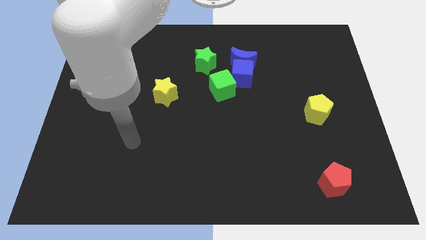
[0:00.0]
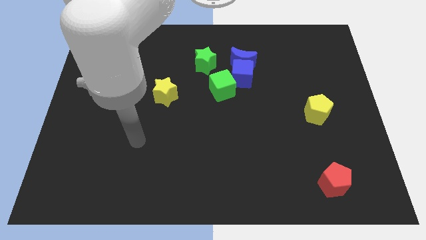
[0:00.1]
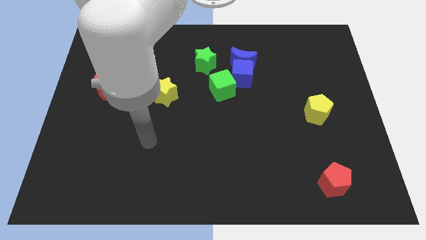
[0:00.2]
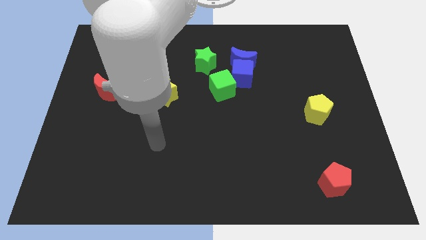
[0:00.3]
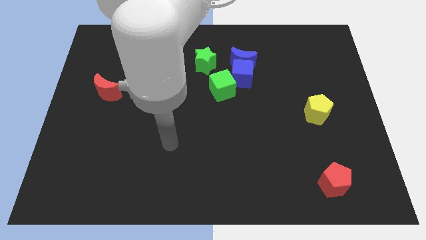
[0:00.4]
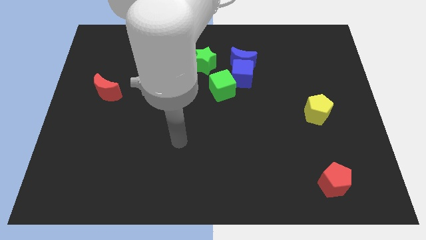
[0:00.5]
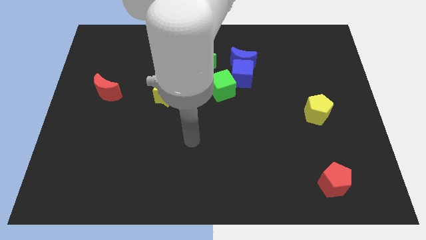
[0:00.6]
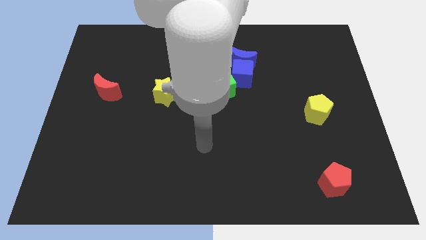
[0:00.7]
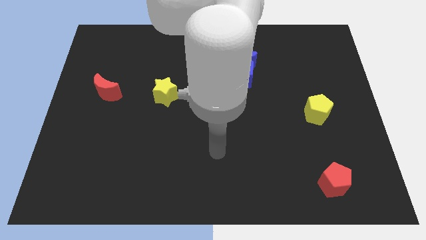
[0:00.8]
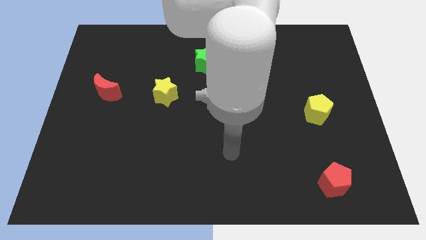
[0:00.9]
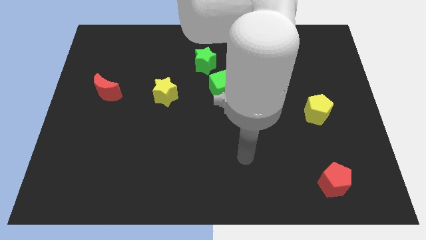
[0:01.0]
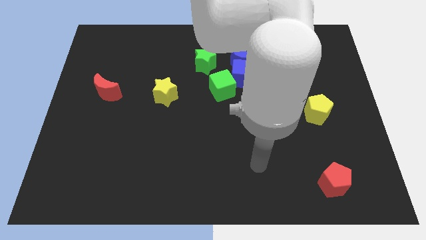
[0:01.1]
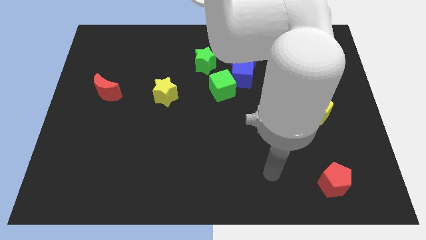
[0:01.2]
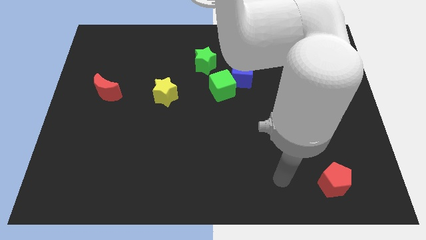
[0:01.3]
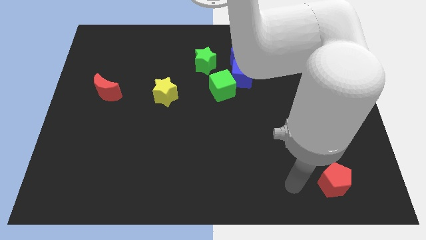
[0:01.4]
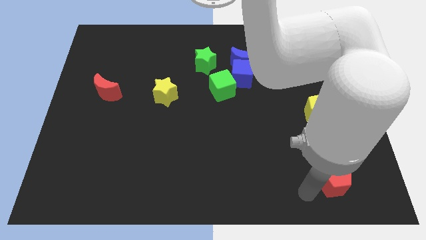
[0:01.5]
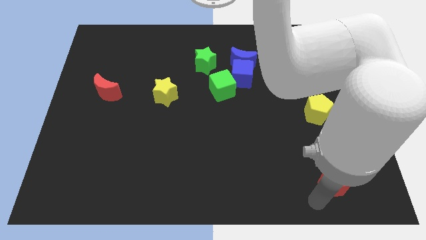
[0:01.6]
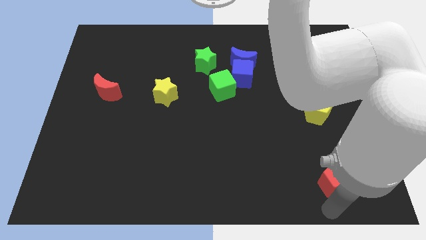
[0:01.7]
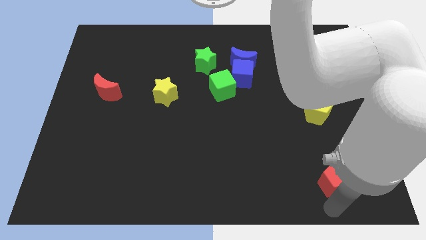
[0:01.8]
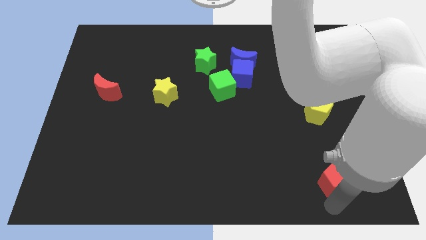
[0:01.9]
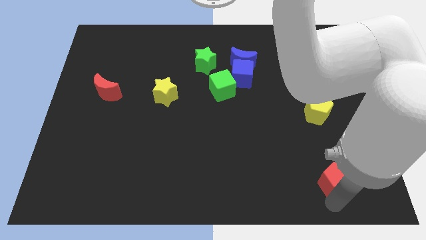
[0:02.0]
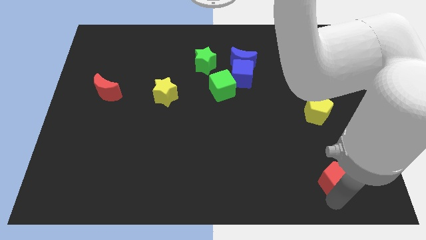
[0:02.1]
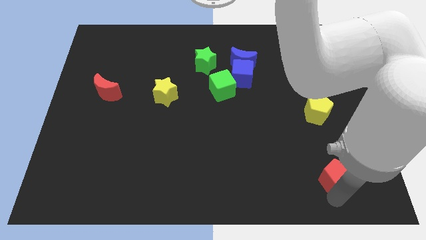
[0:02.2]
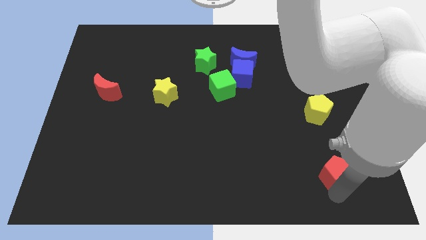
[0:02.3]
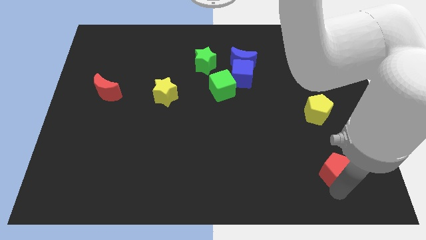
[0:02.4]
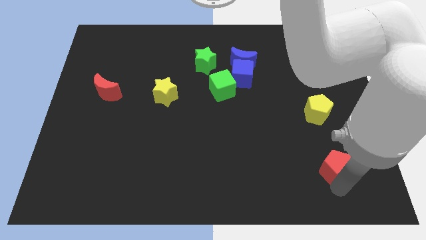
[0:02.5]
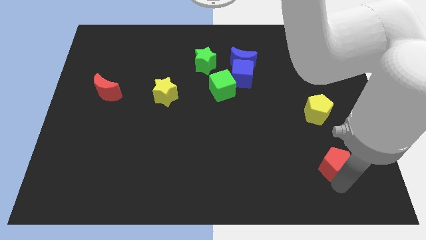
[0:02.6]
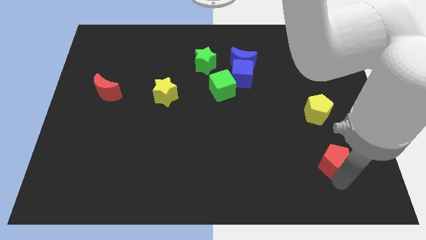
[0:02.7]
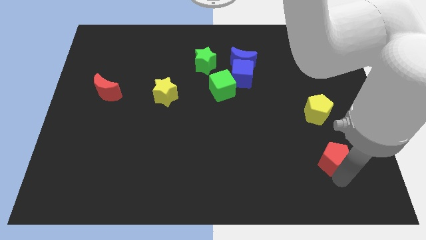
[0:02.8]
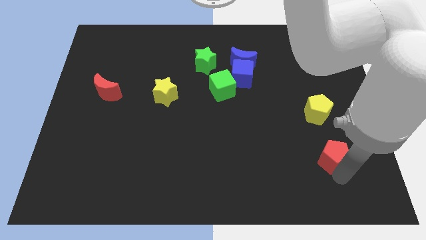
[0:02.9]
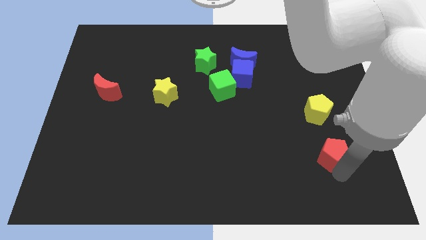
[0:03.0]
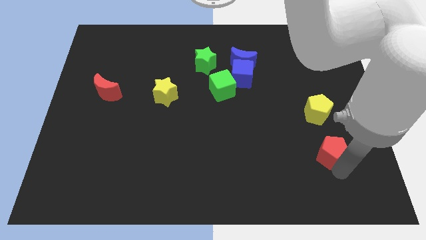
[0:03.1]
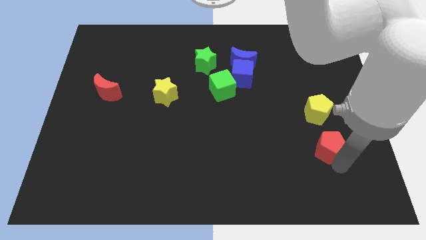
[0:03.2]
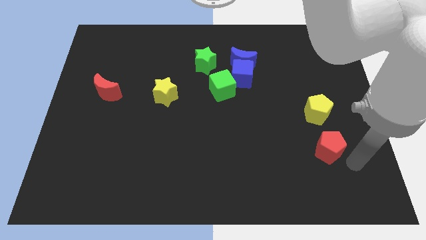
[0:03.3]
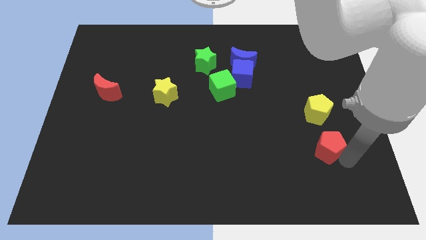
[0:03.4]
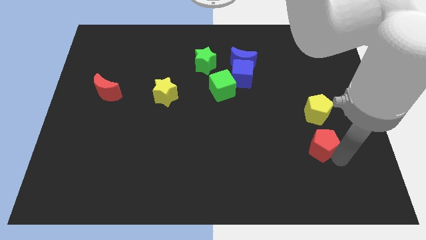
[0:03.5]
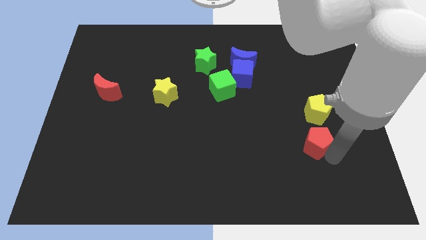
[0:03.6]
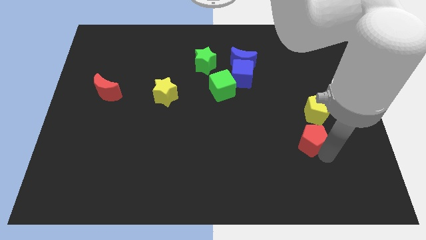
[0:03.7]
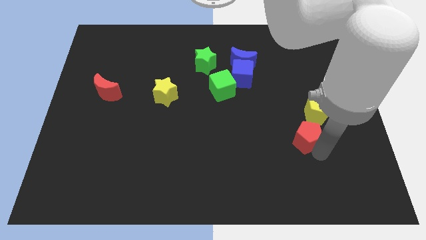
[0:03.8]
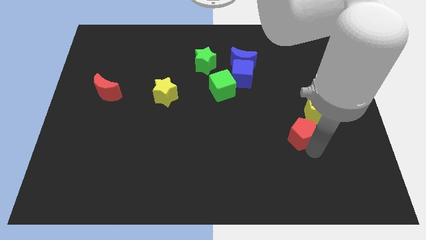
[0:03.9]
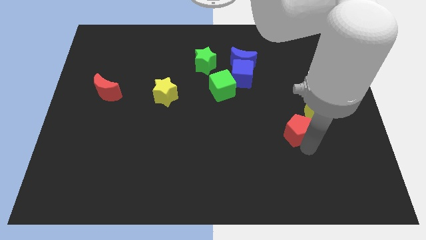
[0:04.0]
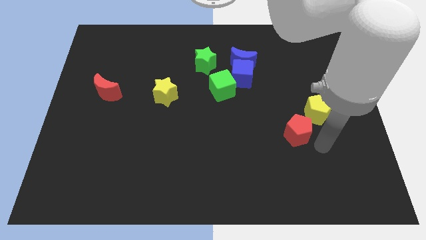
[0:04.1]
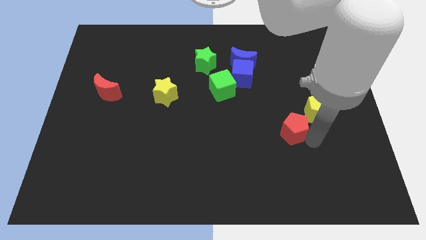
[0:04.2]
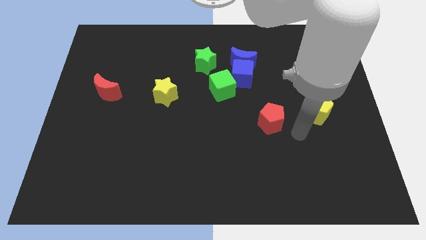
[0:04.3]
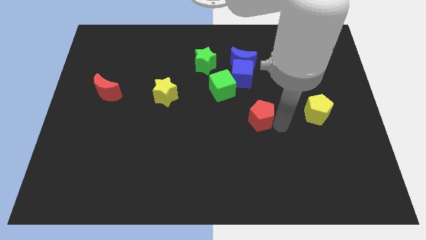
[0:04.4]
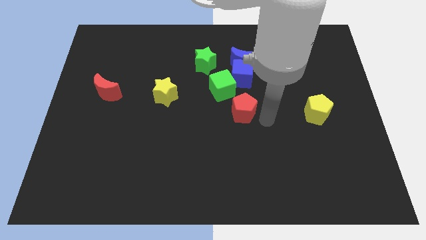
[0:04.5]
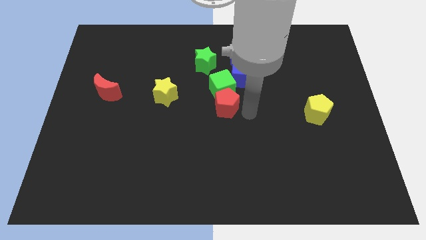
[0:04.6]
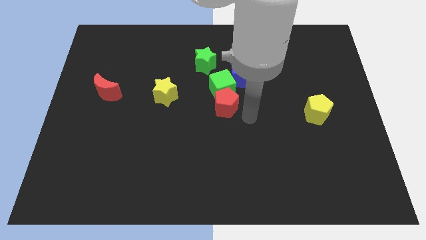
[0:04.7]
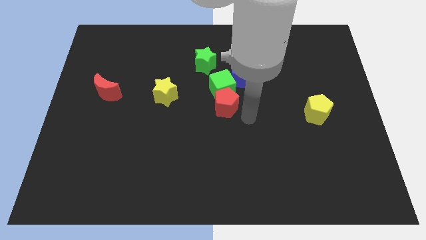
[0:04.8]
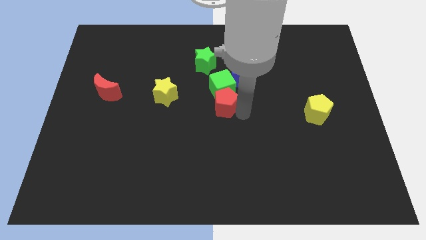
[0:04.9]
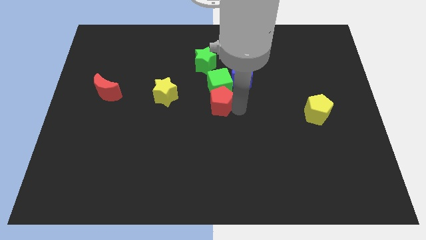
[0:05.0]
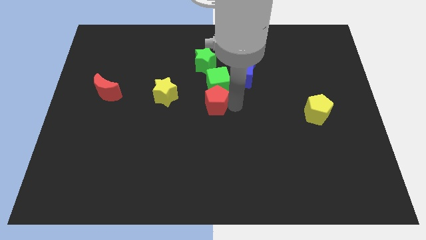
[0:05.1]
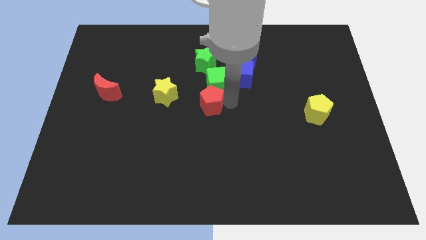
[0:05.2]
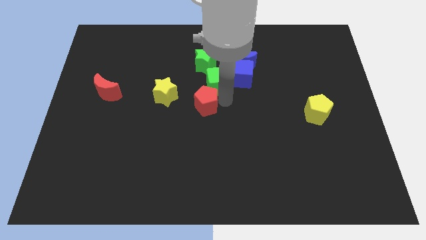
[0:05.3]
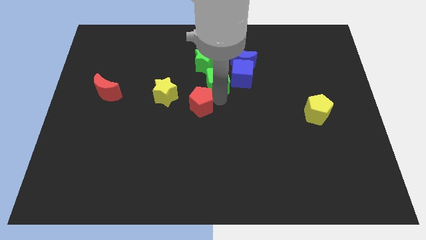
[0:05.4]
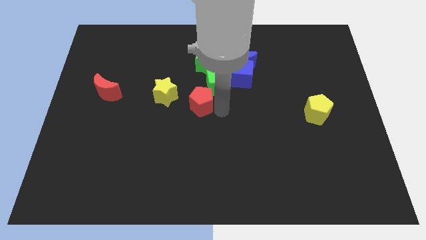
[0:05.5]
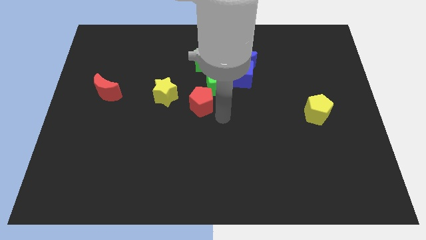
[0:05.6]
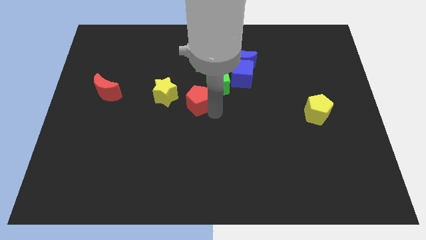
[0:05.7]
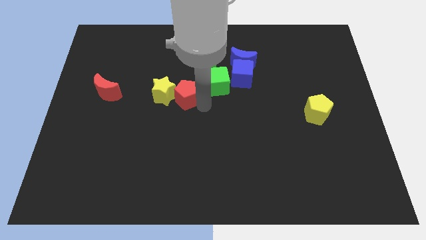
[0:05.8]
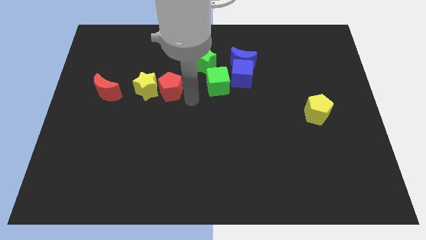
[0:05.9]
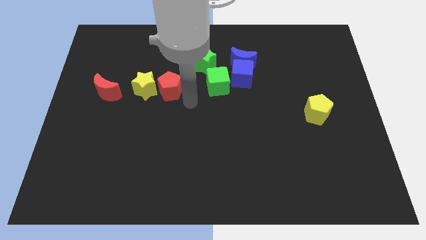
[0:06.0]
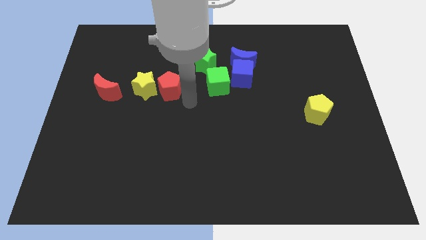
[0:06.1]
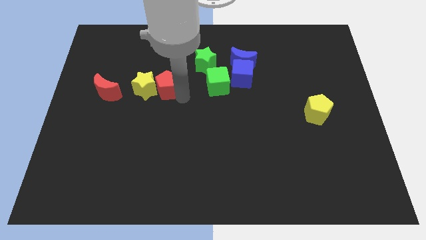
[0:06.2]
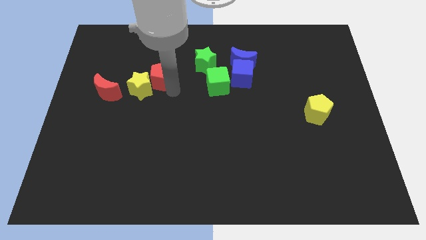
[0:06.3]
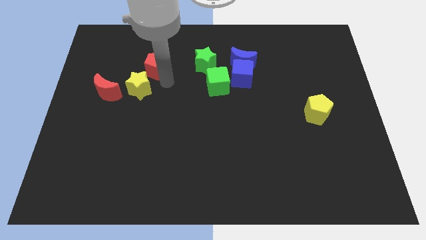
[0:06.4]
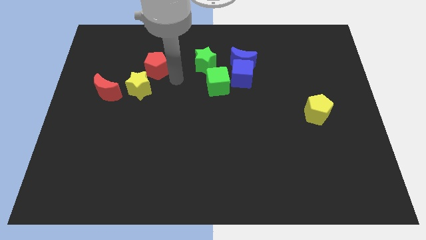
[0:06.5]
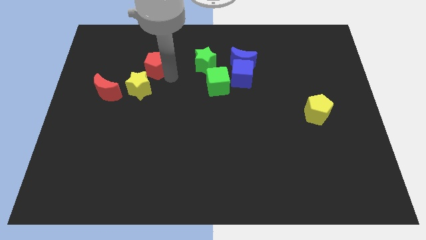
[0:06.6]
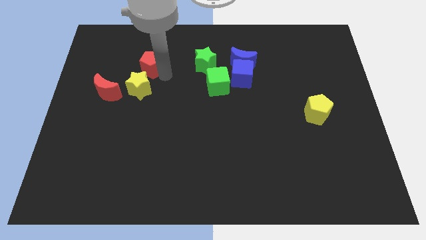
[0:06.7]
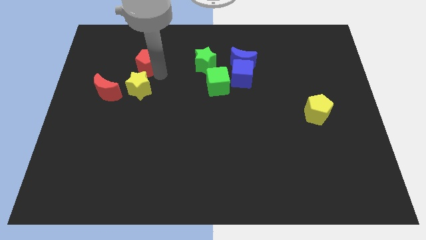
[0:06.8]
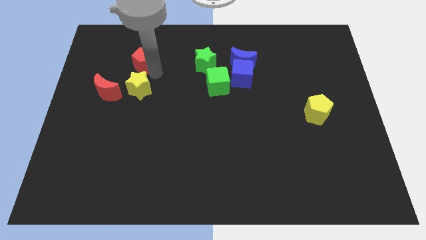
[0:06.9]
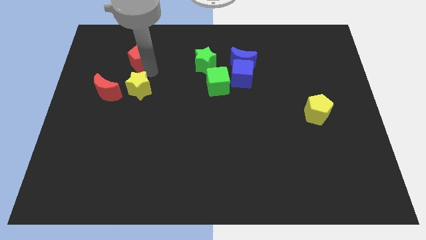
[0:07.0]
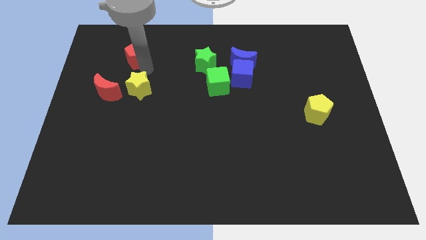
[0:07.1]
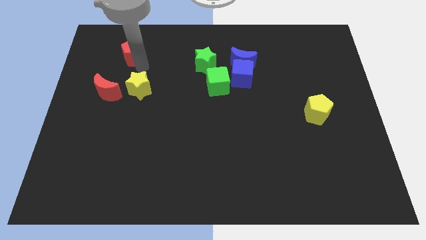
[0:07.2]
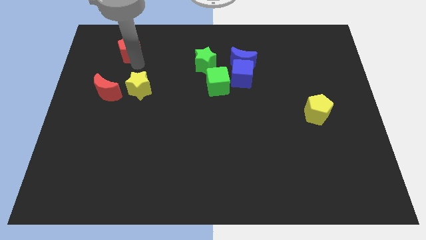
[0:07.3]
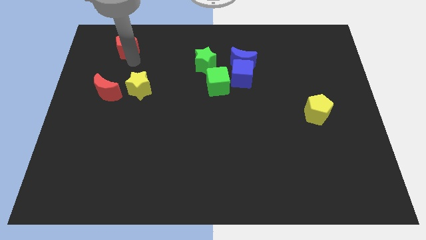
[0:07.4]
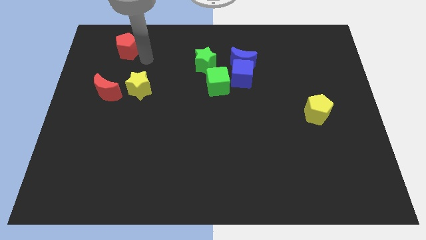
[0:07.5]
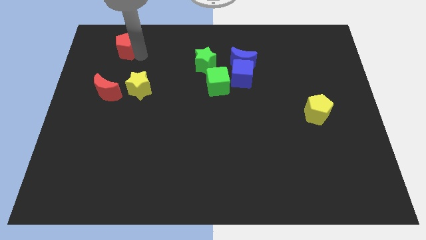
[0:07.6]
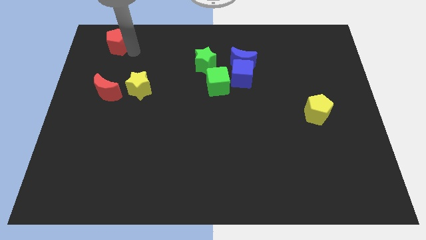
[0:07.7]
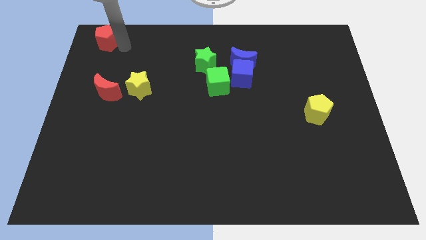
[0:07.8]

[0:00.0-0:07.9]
put the red pentagon to the upper left corner
